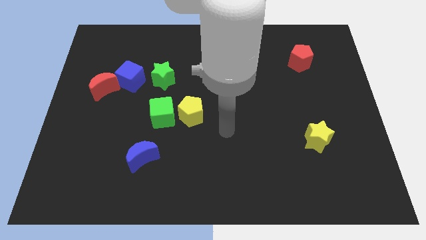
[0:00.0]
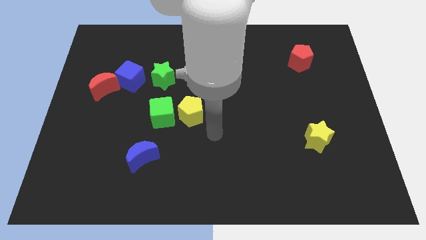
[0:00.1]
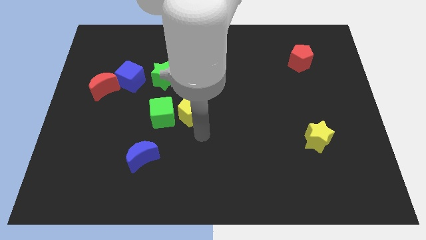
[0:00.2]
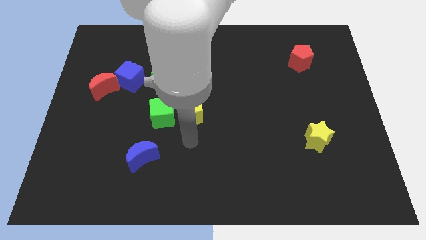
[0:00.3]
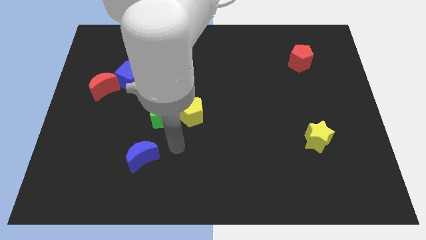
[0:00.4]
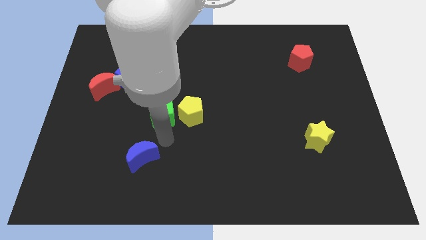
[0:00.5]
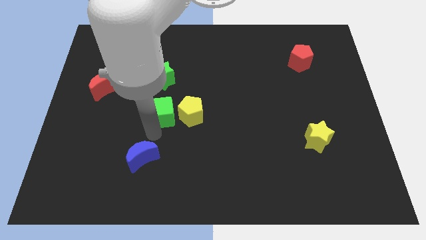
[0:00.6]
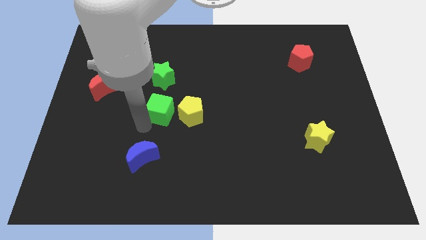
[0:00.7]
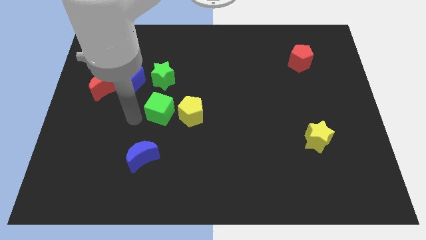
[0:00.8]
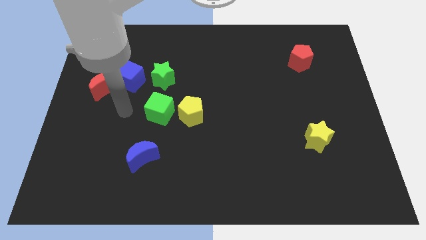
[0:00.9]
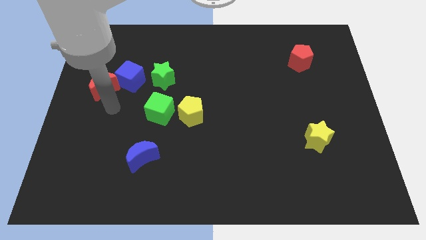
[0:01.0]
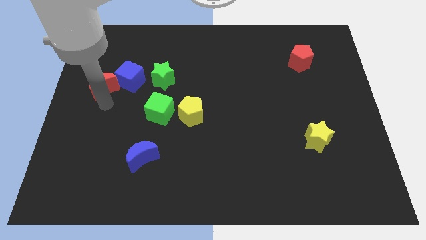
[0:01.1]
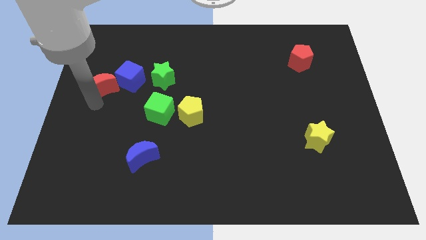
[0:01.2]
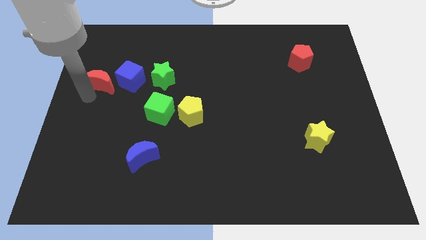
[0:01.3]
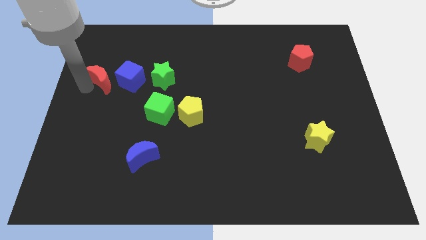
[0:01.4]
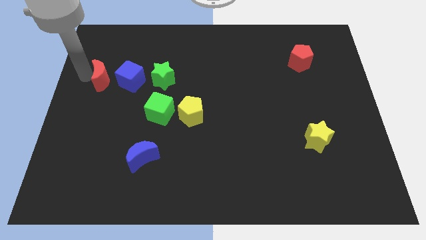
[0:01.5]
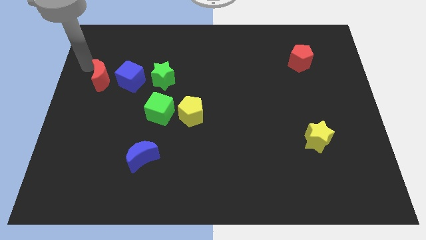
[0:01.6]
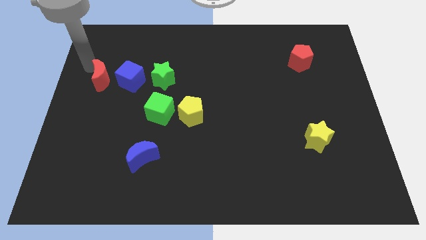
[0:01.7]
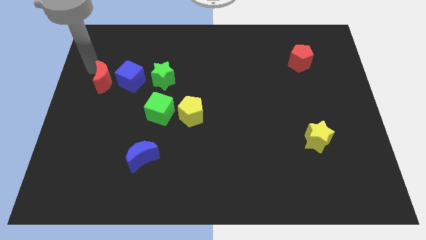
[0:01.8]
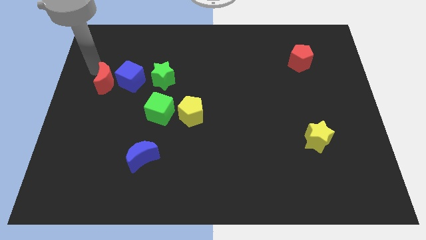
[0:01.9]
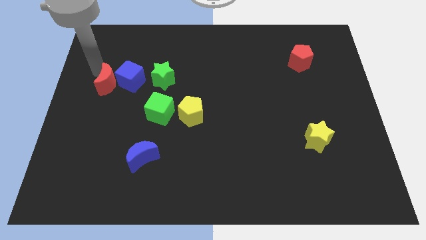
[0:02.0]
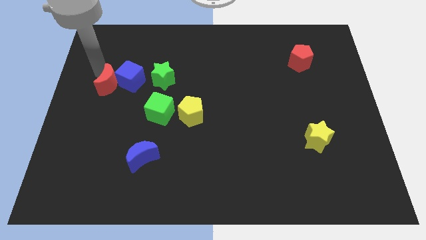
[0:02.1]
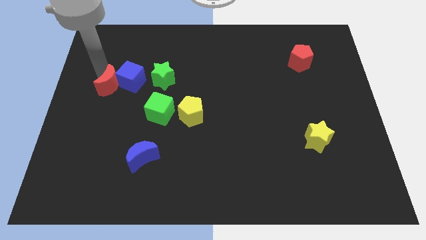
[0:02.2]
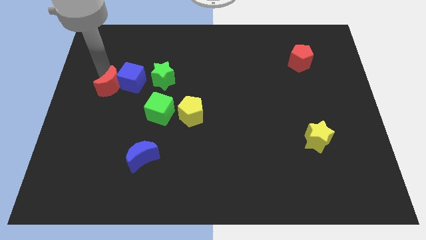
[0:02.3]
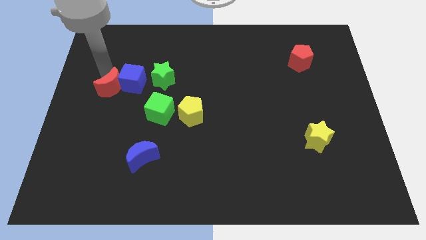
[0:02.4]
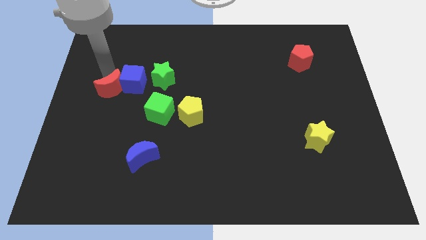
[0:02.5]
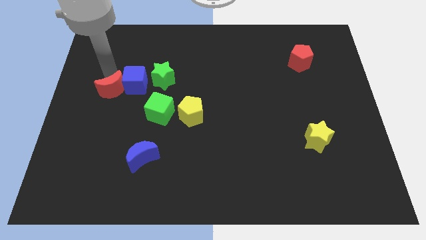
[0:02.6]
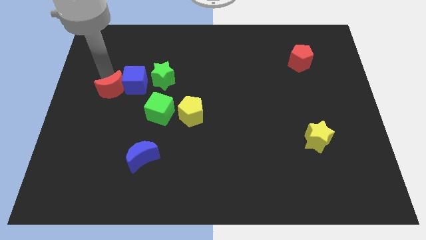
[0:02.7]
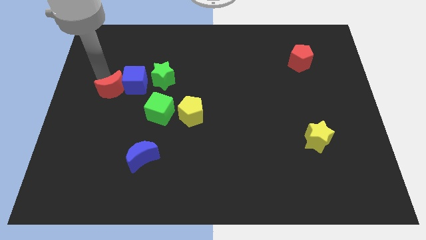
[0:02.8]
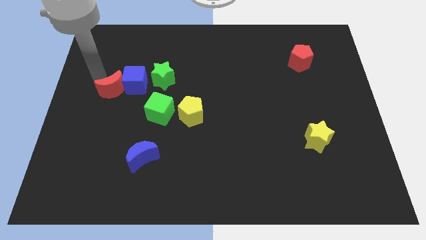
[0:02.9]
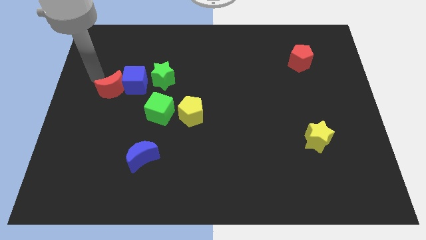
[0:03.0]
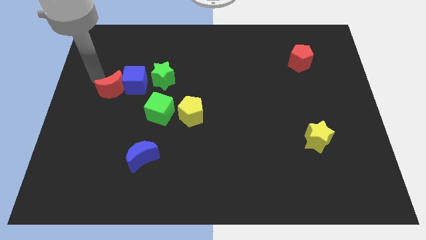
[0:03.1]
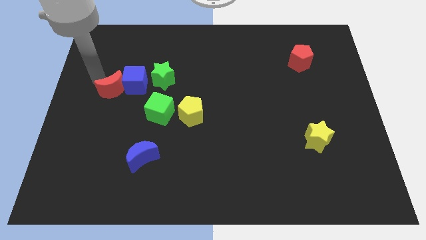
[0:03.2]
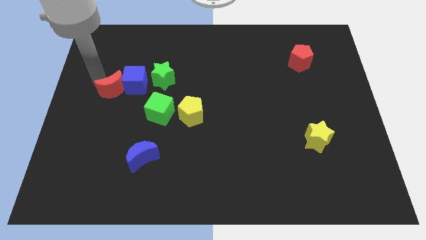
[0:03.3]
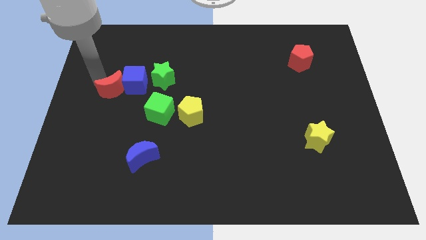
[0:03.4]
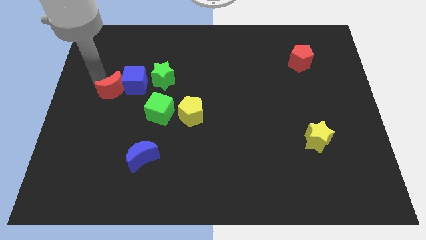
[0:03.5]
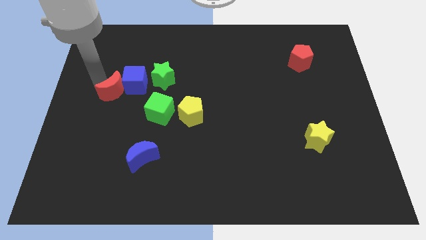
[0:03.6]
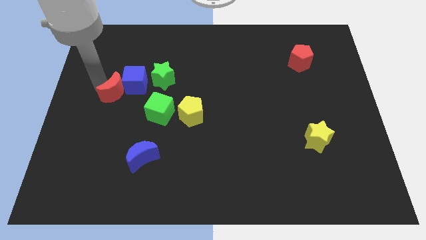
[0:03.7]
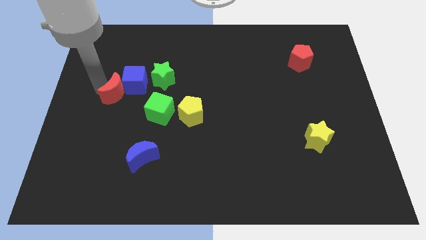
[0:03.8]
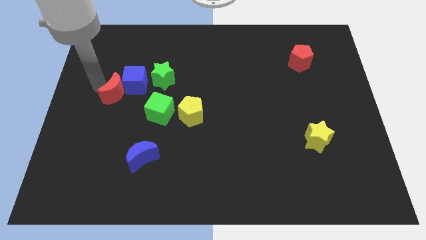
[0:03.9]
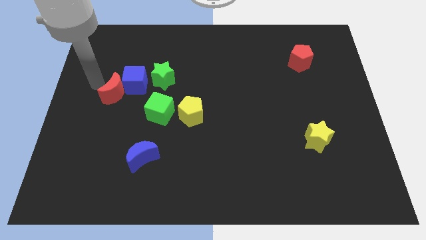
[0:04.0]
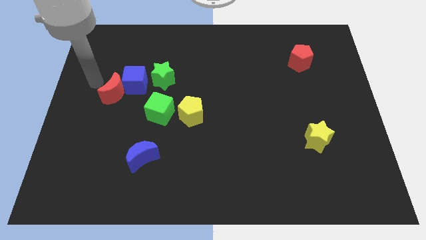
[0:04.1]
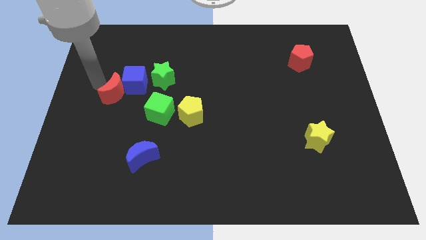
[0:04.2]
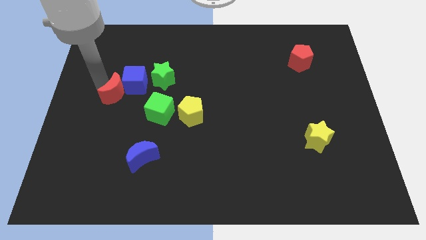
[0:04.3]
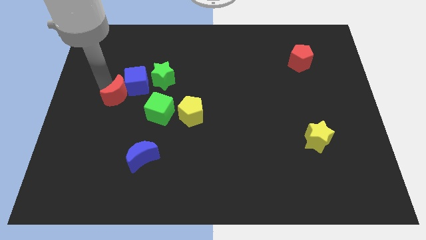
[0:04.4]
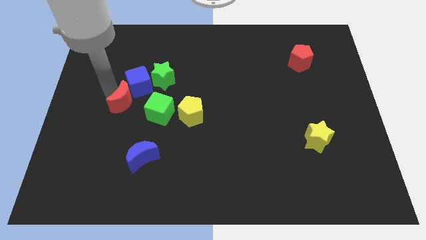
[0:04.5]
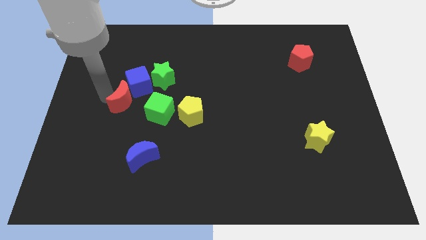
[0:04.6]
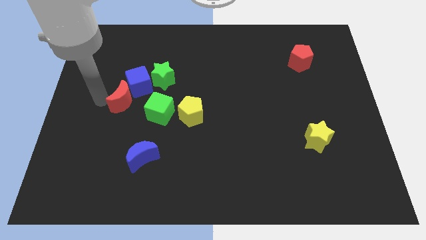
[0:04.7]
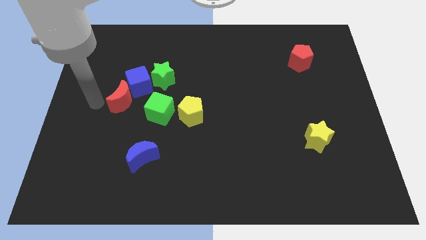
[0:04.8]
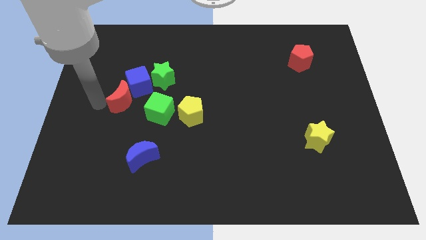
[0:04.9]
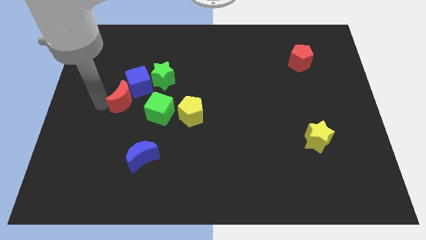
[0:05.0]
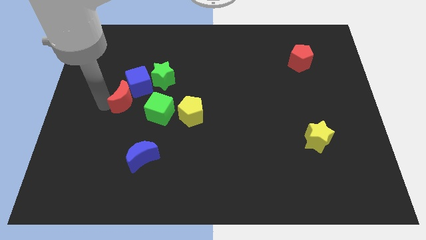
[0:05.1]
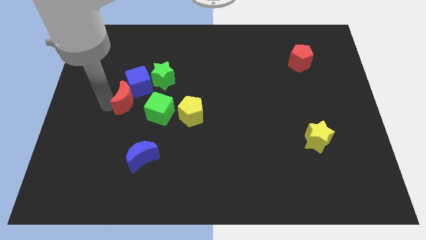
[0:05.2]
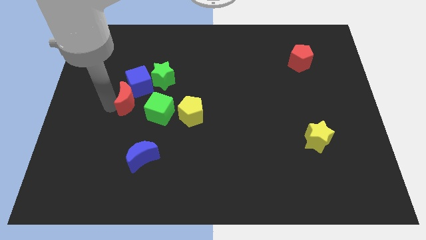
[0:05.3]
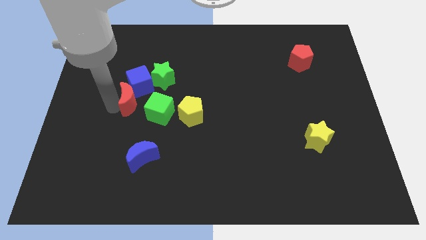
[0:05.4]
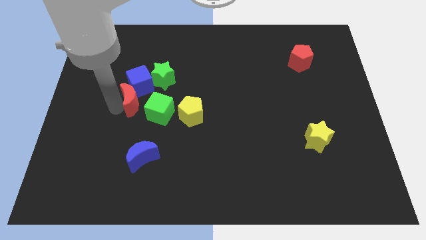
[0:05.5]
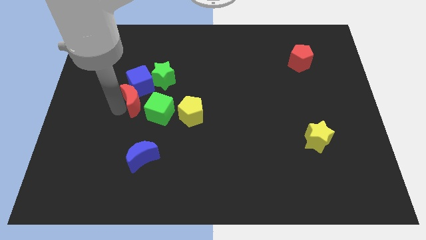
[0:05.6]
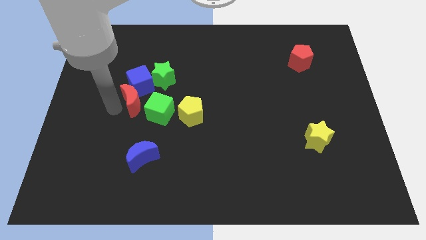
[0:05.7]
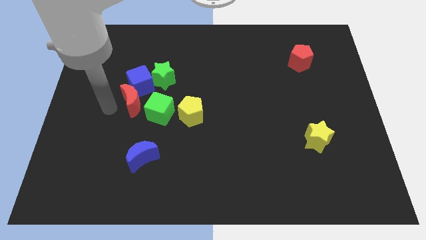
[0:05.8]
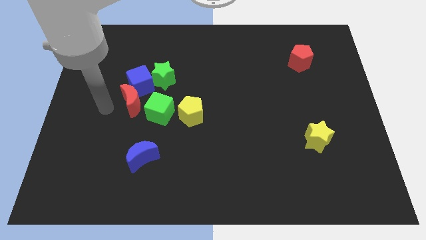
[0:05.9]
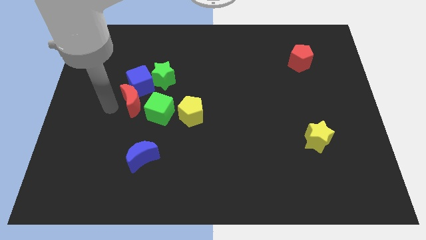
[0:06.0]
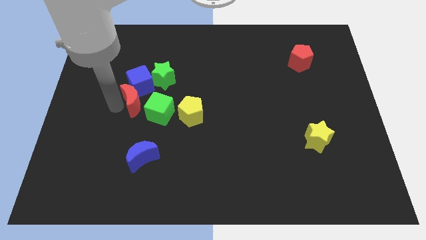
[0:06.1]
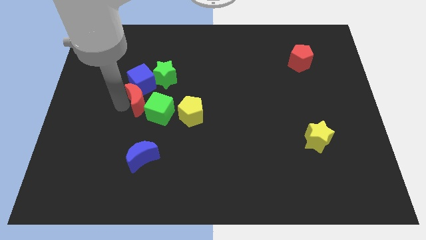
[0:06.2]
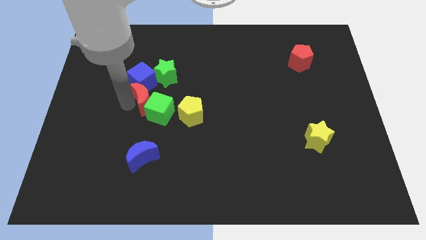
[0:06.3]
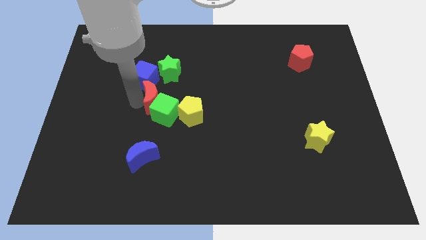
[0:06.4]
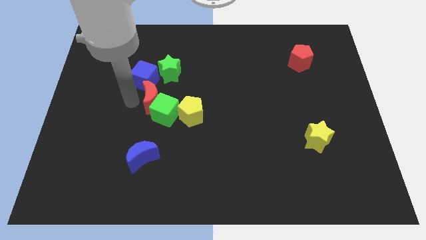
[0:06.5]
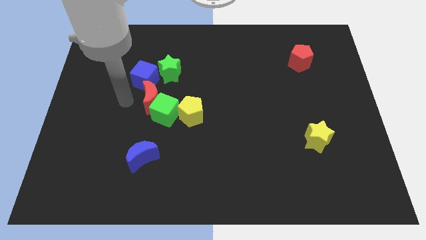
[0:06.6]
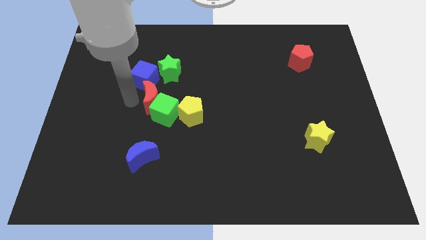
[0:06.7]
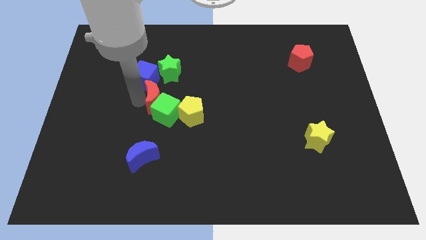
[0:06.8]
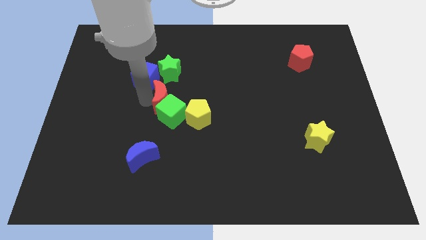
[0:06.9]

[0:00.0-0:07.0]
put the red moon to the center of the board

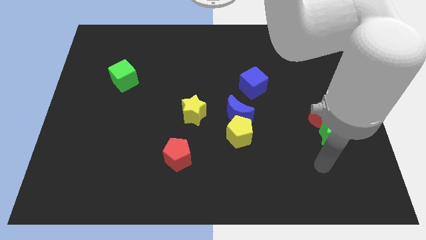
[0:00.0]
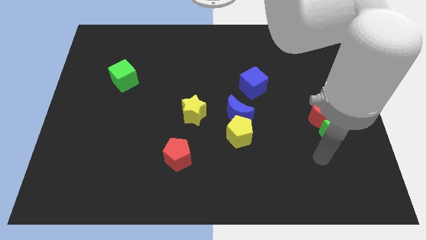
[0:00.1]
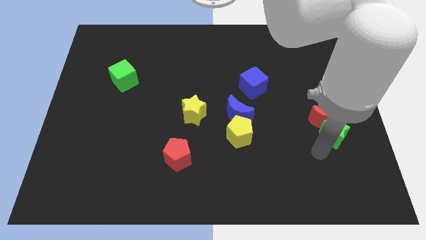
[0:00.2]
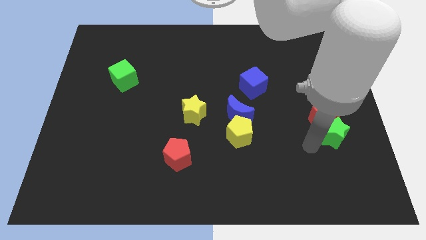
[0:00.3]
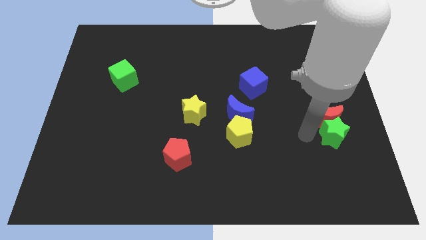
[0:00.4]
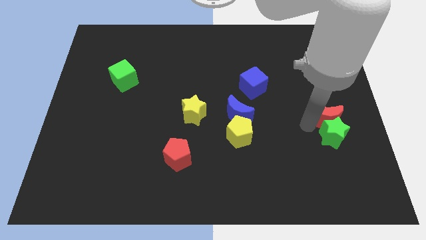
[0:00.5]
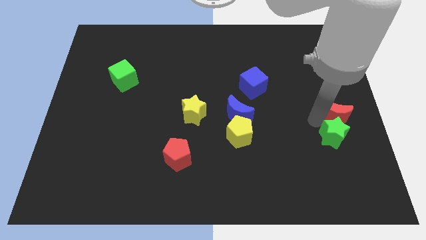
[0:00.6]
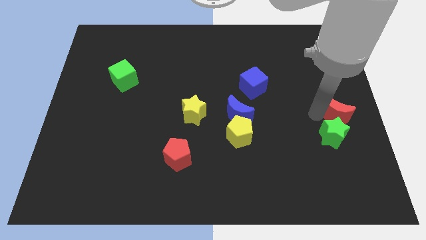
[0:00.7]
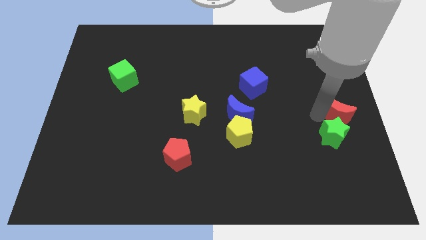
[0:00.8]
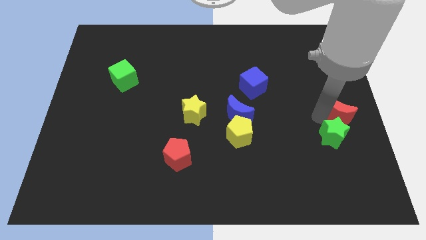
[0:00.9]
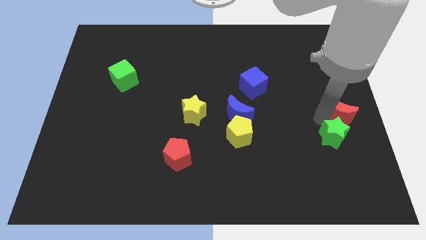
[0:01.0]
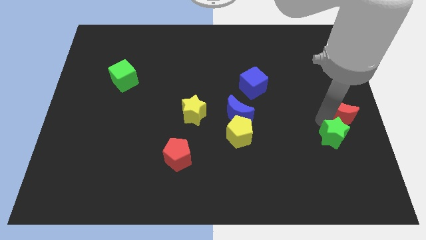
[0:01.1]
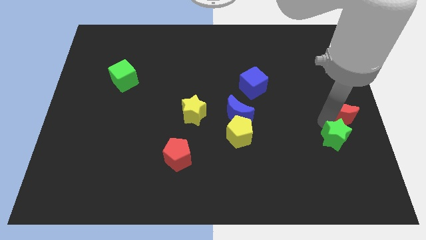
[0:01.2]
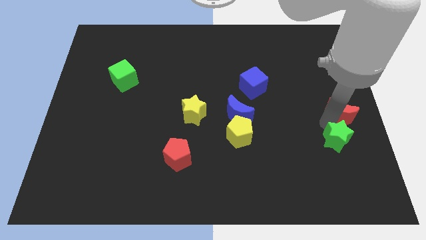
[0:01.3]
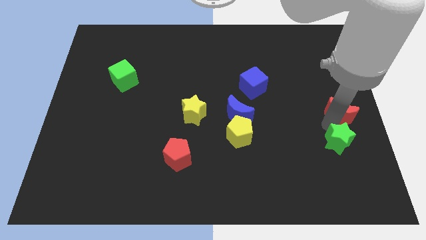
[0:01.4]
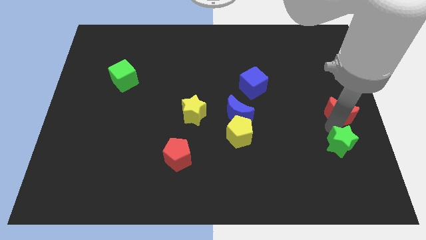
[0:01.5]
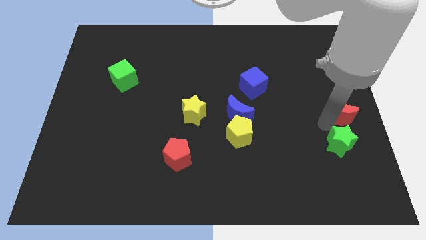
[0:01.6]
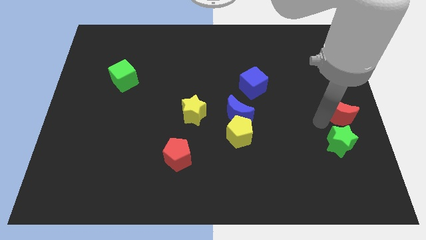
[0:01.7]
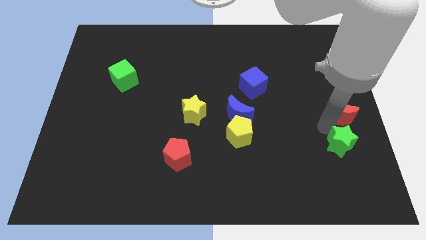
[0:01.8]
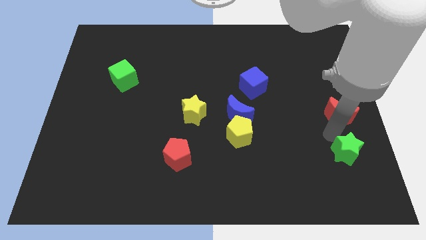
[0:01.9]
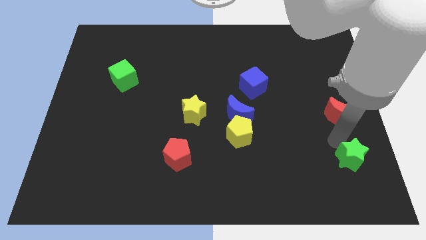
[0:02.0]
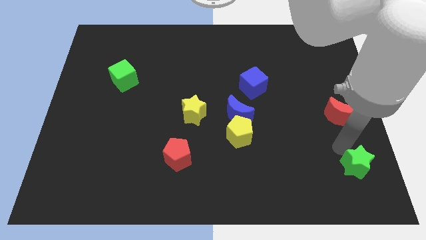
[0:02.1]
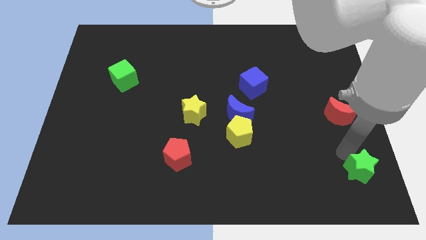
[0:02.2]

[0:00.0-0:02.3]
push the green star to the bottom right of the board
